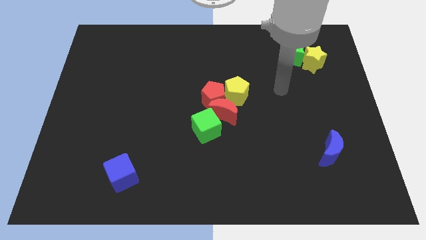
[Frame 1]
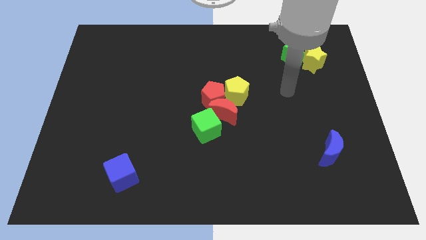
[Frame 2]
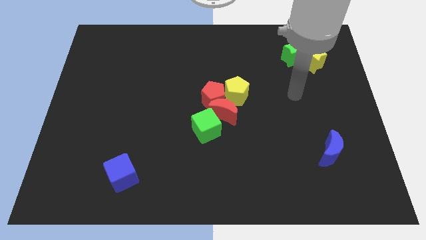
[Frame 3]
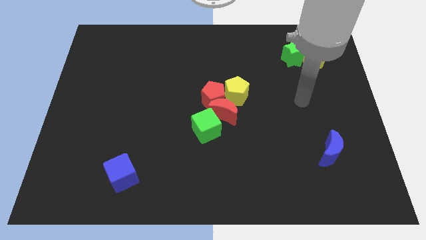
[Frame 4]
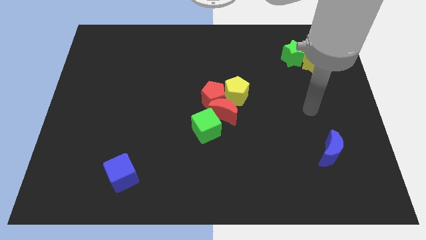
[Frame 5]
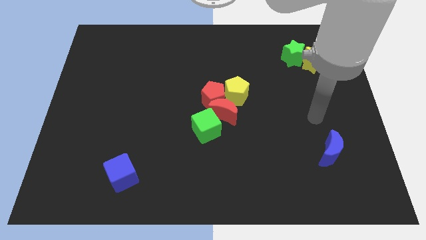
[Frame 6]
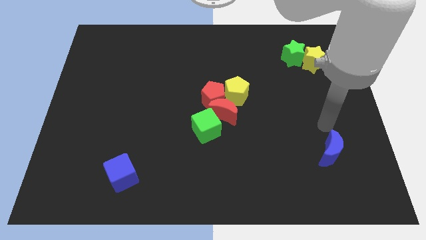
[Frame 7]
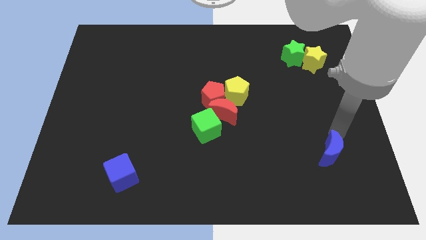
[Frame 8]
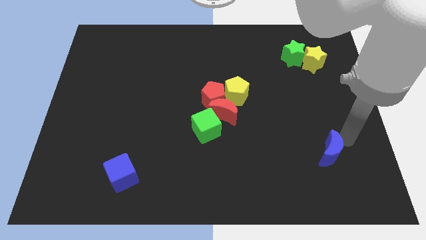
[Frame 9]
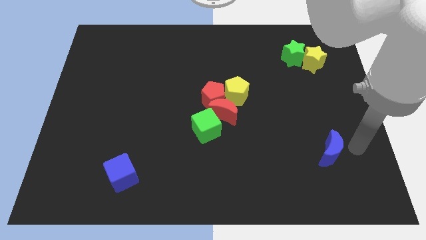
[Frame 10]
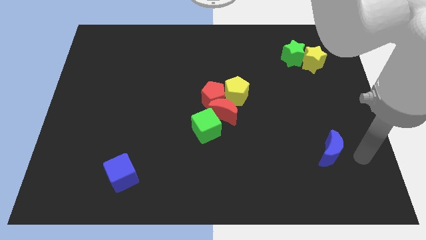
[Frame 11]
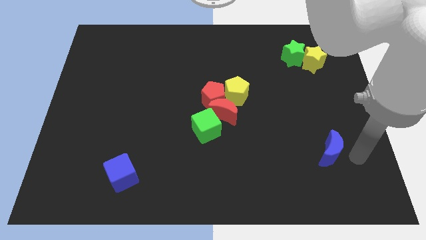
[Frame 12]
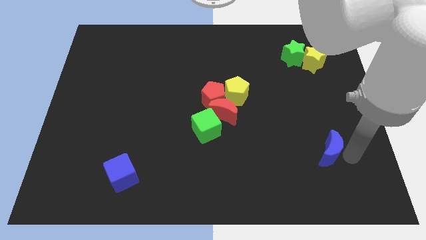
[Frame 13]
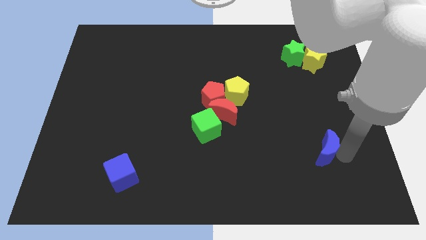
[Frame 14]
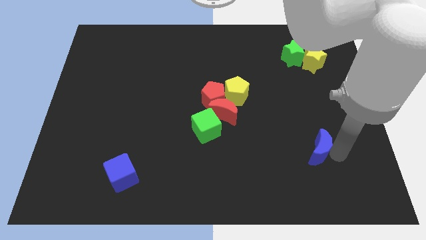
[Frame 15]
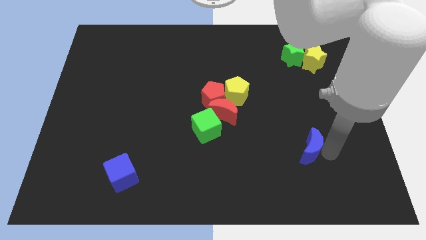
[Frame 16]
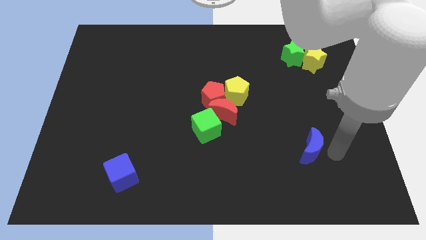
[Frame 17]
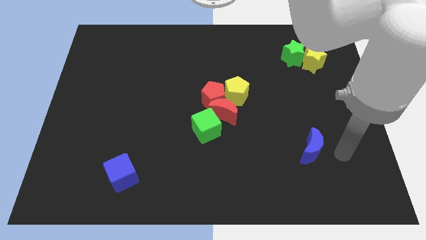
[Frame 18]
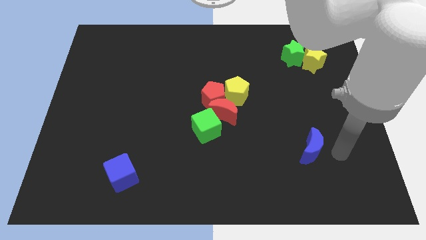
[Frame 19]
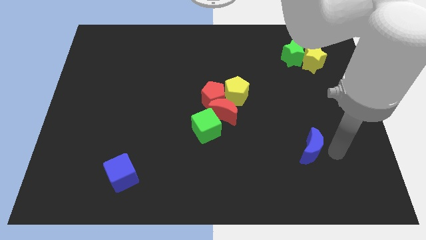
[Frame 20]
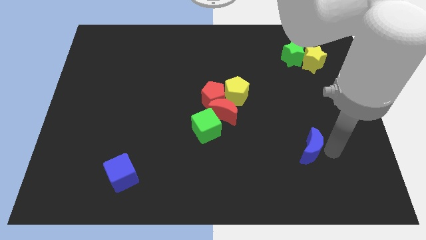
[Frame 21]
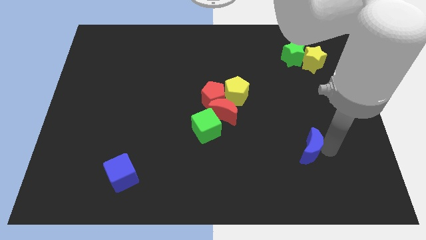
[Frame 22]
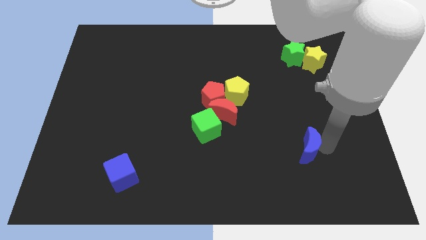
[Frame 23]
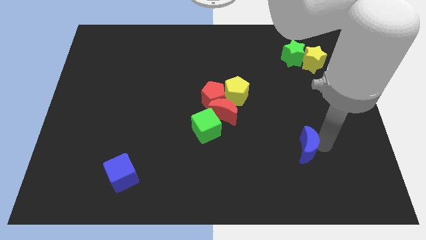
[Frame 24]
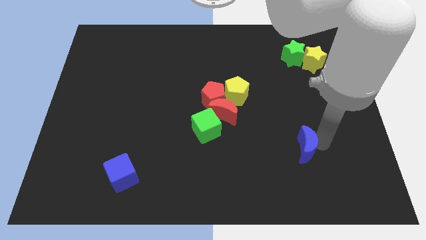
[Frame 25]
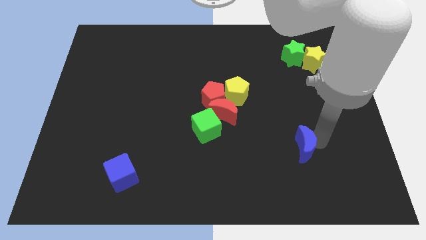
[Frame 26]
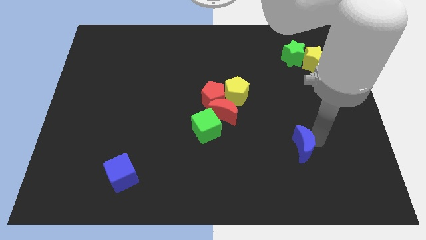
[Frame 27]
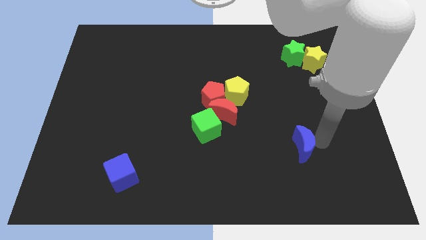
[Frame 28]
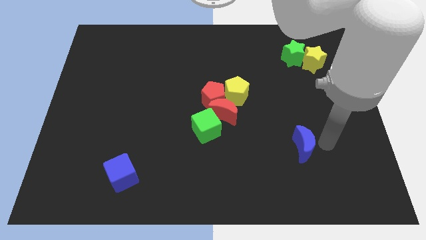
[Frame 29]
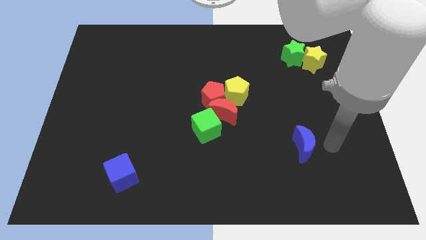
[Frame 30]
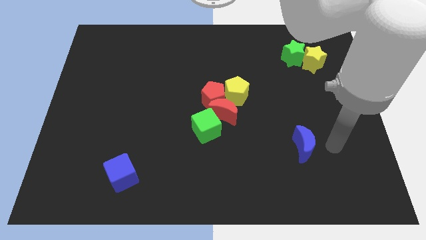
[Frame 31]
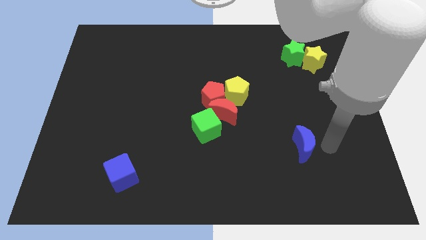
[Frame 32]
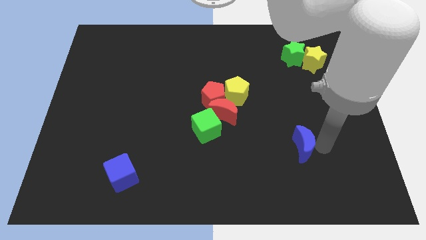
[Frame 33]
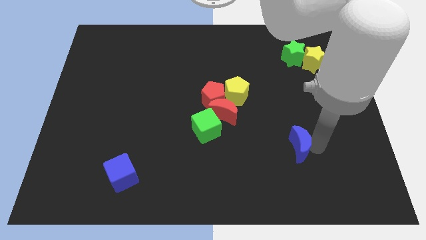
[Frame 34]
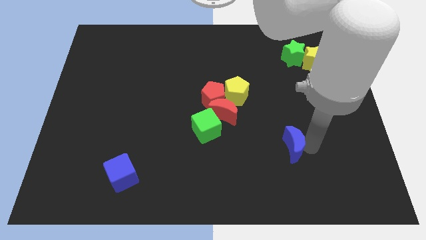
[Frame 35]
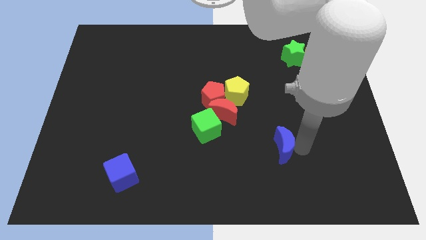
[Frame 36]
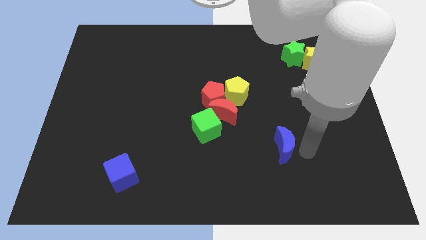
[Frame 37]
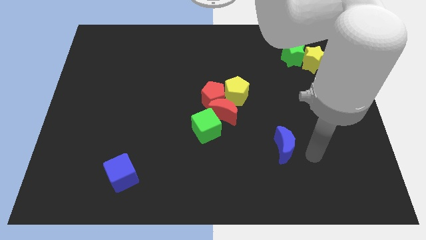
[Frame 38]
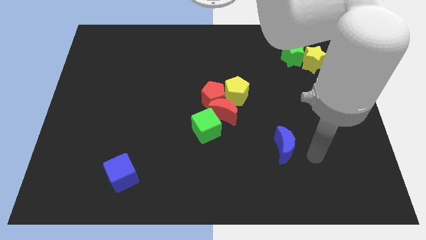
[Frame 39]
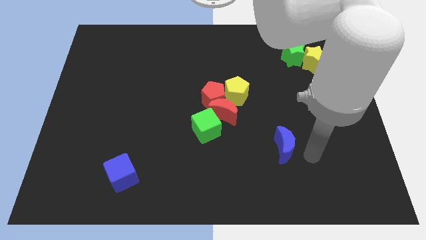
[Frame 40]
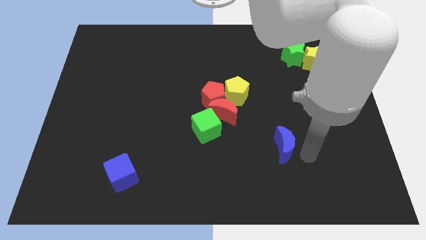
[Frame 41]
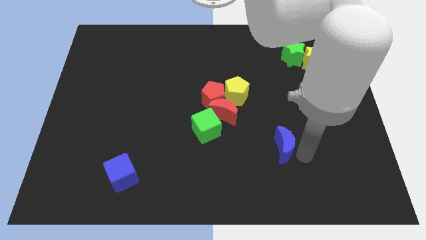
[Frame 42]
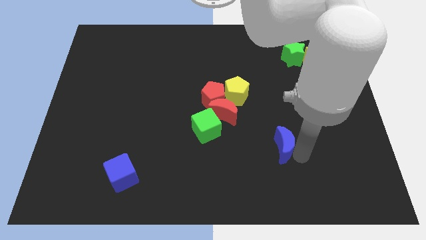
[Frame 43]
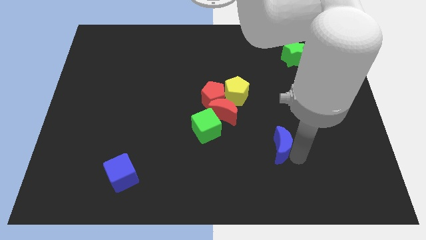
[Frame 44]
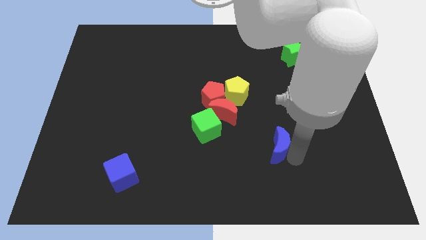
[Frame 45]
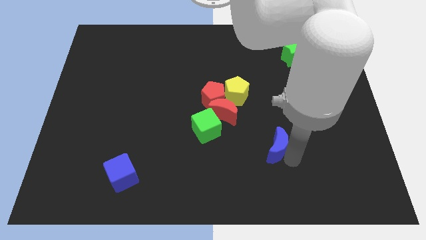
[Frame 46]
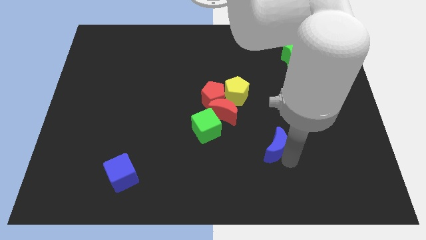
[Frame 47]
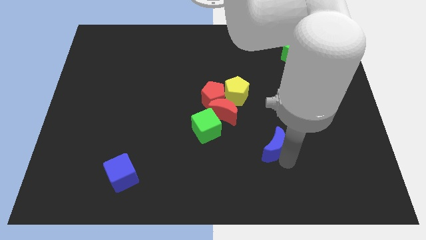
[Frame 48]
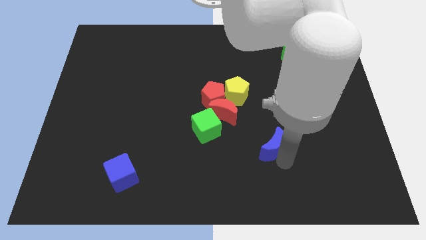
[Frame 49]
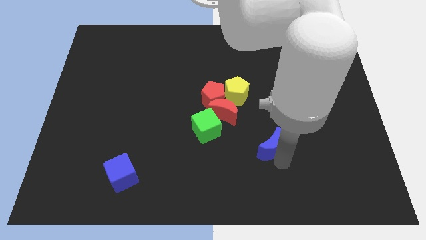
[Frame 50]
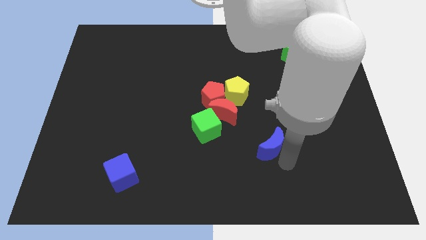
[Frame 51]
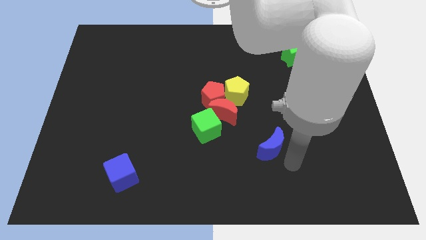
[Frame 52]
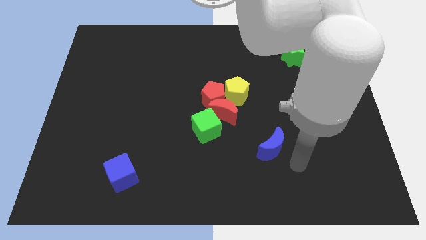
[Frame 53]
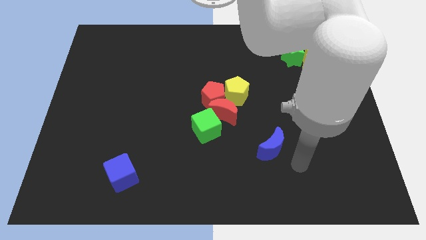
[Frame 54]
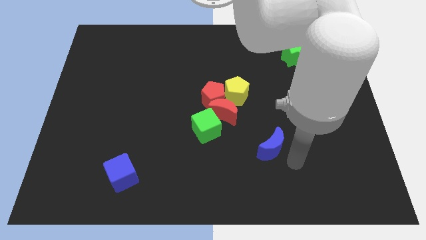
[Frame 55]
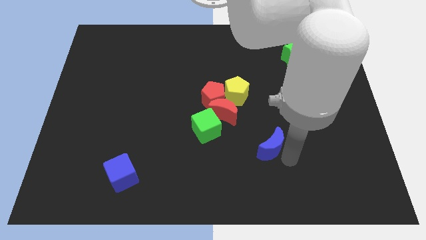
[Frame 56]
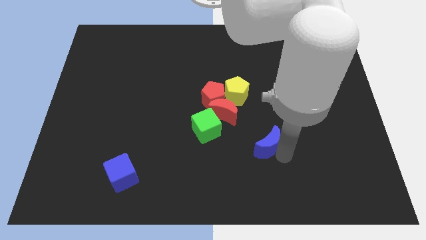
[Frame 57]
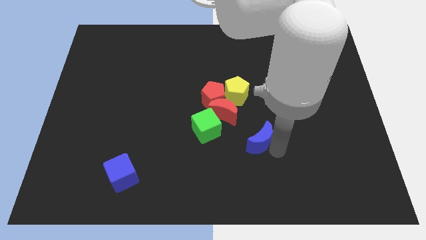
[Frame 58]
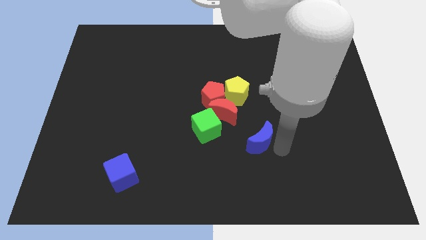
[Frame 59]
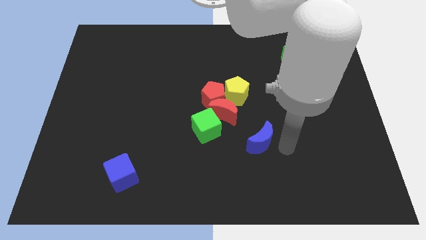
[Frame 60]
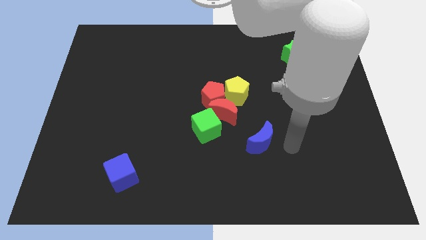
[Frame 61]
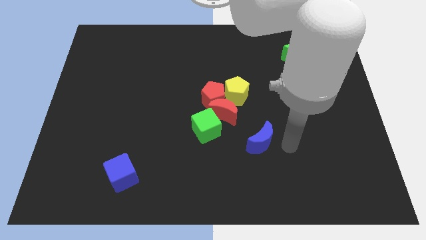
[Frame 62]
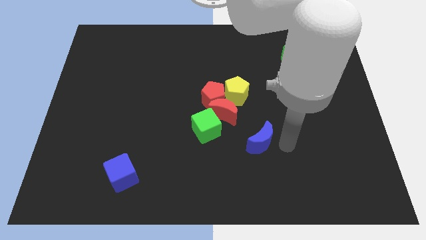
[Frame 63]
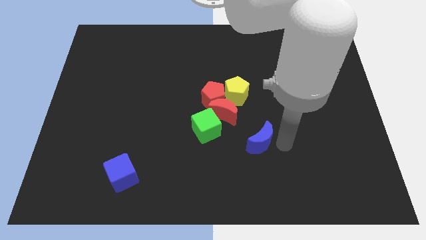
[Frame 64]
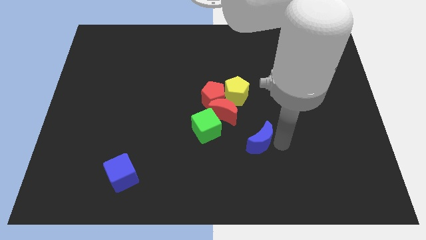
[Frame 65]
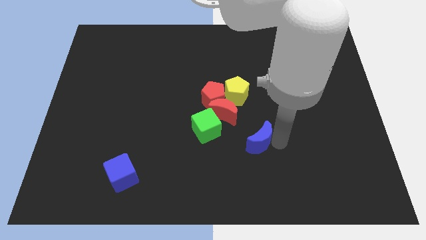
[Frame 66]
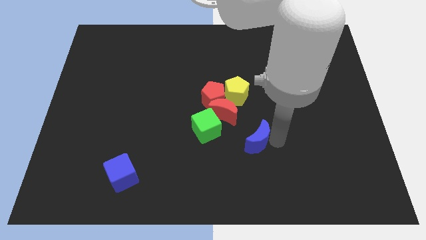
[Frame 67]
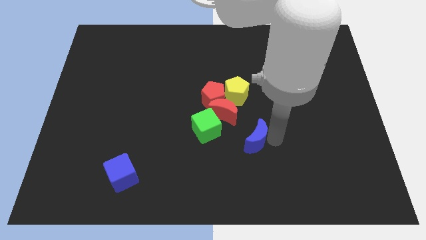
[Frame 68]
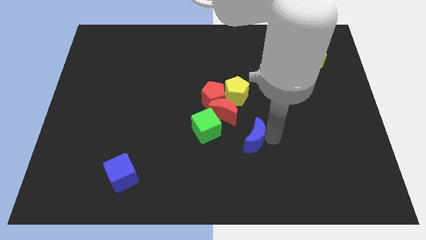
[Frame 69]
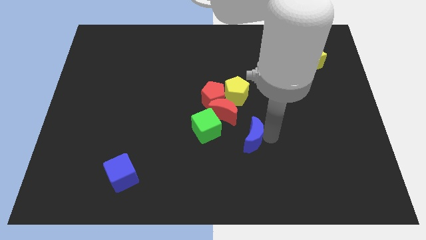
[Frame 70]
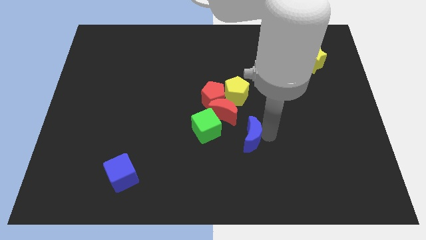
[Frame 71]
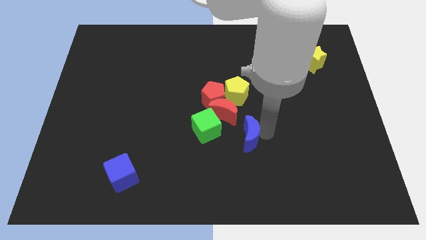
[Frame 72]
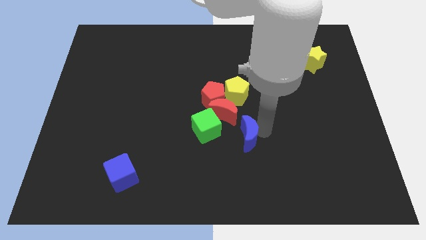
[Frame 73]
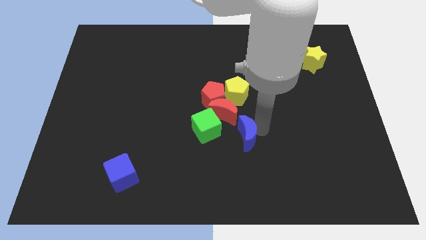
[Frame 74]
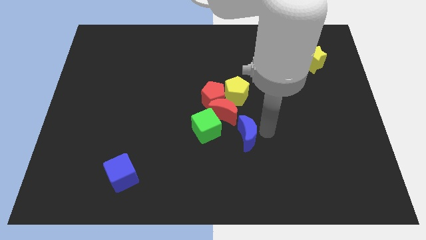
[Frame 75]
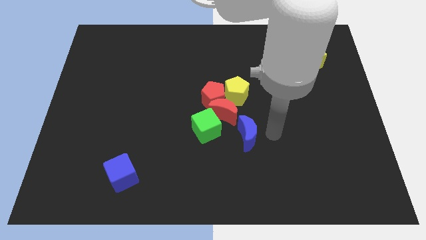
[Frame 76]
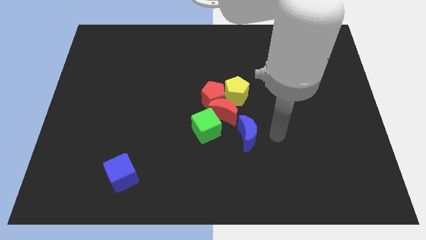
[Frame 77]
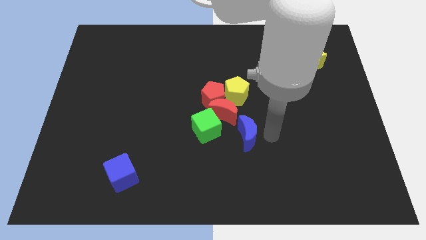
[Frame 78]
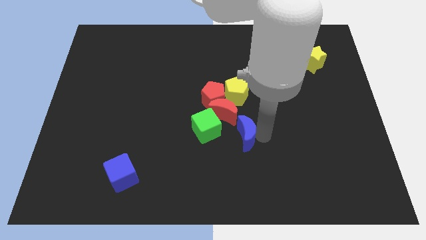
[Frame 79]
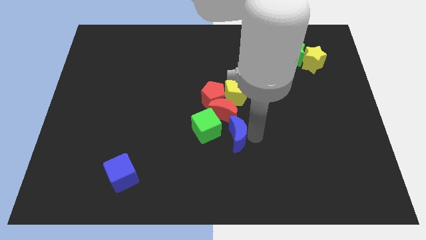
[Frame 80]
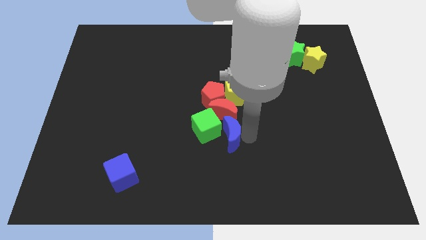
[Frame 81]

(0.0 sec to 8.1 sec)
put the blue moon to the green cube
